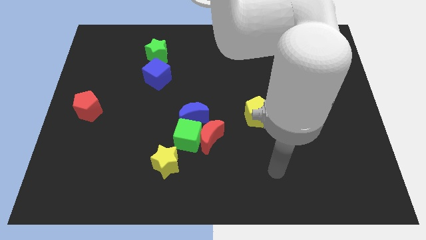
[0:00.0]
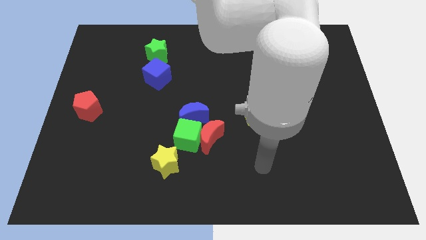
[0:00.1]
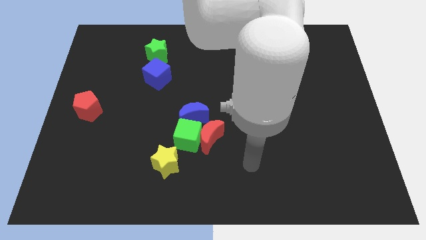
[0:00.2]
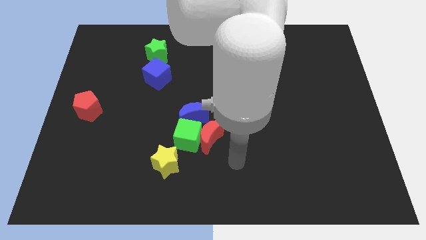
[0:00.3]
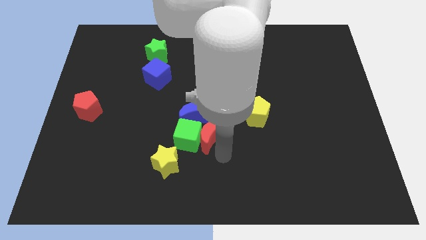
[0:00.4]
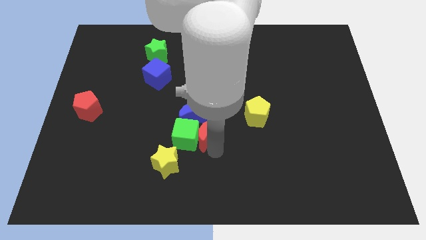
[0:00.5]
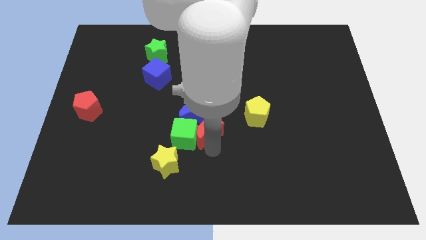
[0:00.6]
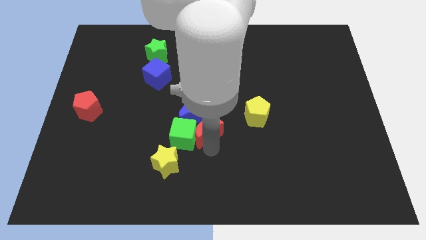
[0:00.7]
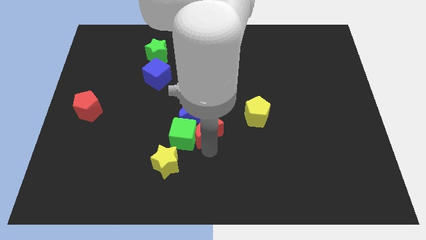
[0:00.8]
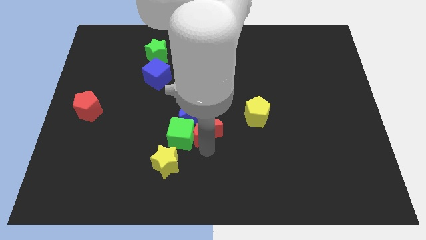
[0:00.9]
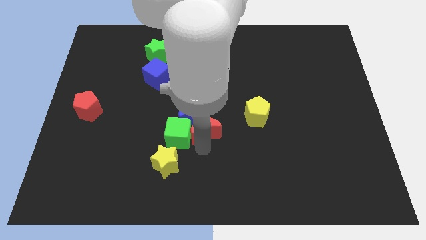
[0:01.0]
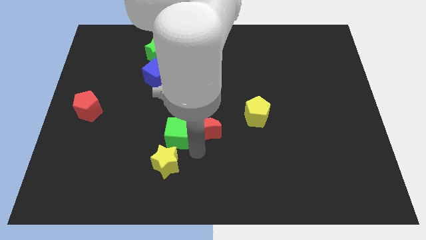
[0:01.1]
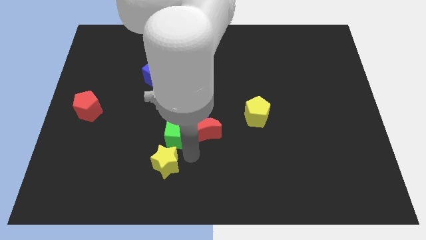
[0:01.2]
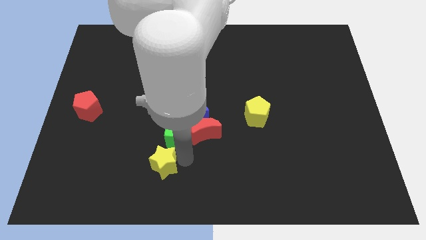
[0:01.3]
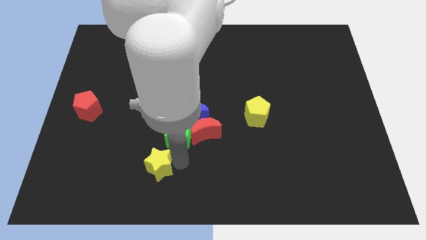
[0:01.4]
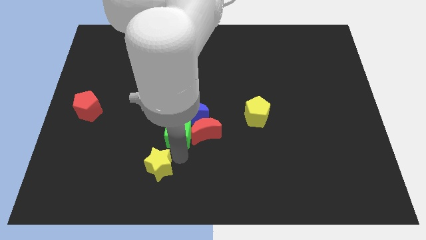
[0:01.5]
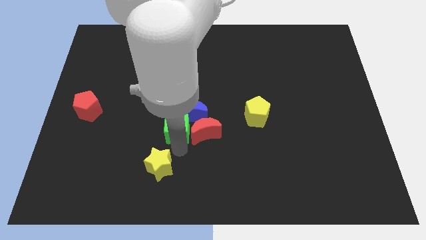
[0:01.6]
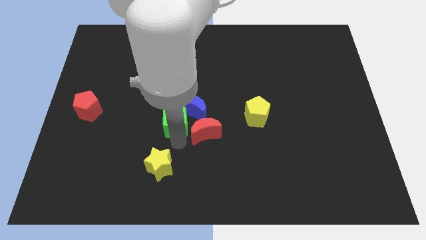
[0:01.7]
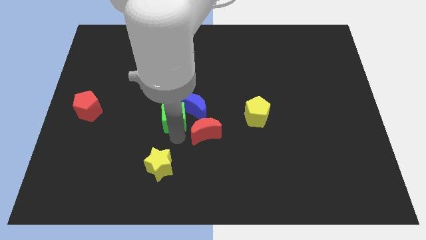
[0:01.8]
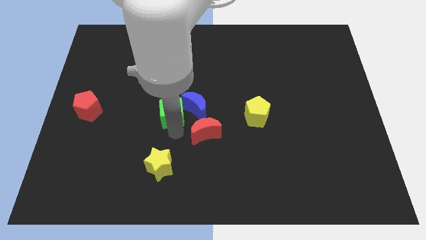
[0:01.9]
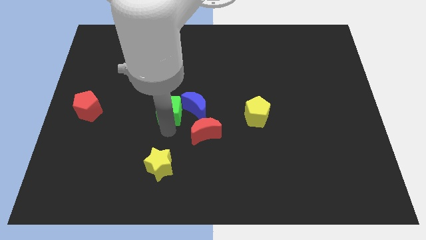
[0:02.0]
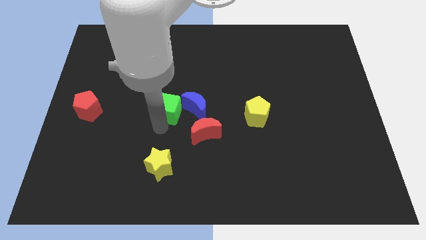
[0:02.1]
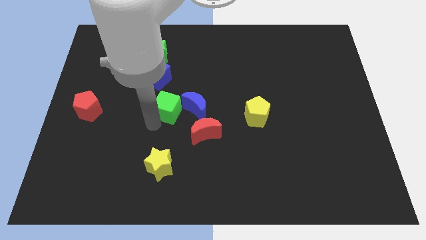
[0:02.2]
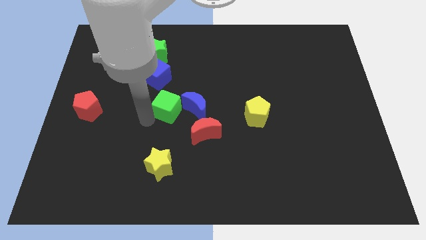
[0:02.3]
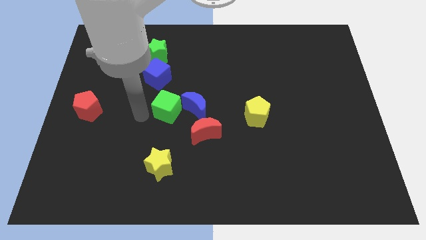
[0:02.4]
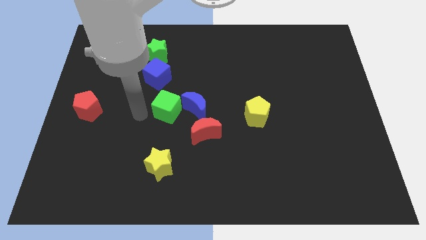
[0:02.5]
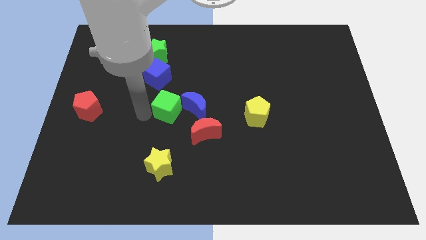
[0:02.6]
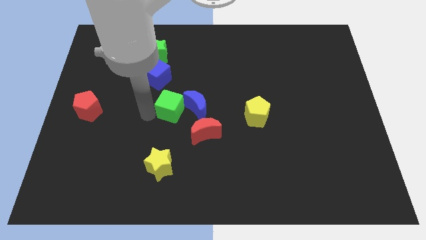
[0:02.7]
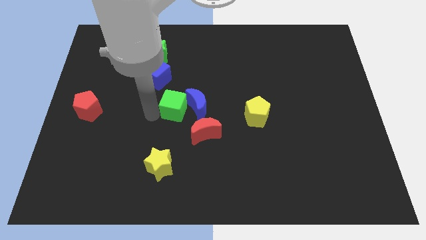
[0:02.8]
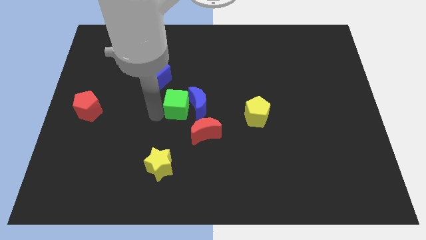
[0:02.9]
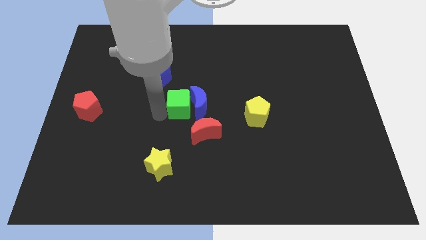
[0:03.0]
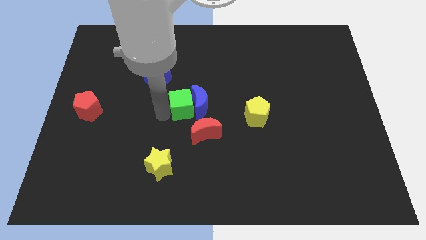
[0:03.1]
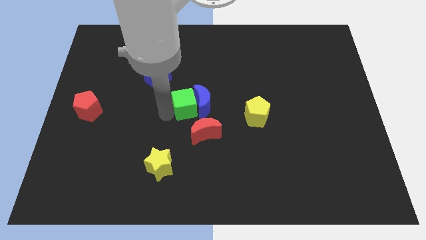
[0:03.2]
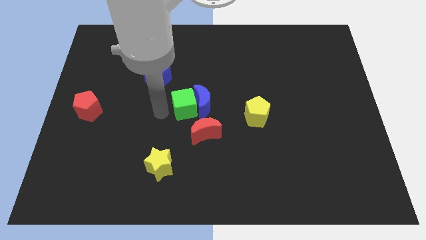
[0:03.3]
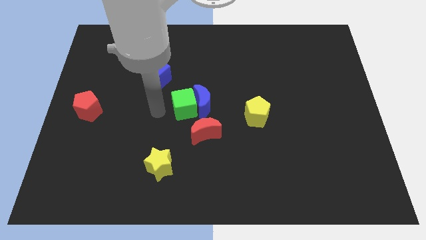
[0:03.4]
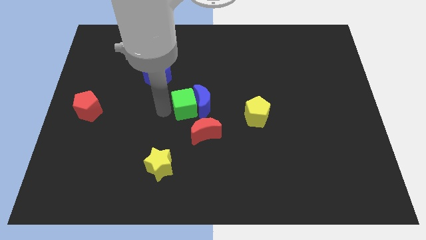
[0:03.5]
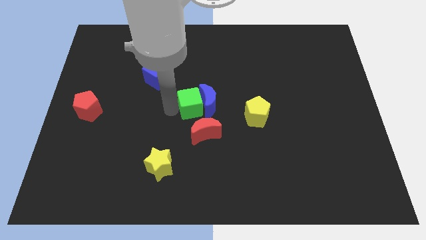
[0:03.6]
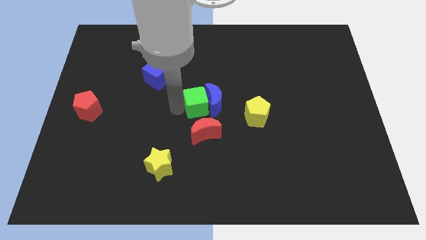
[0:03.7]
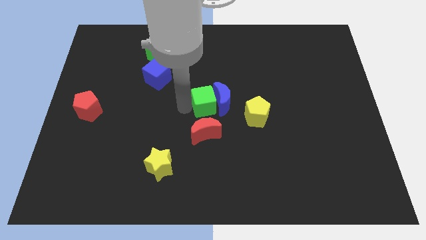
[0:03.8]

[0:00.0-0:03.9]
move the green cube a little diagonally upwards and to the right

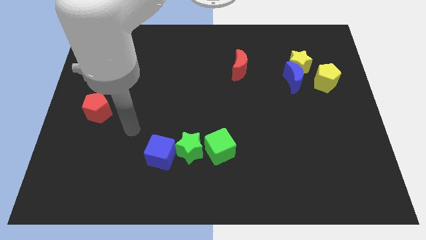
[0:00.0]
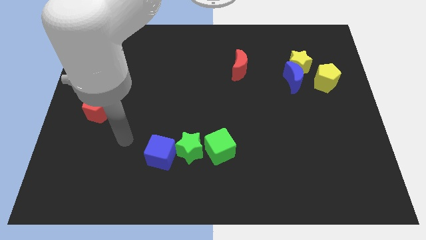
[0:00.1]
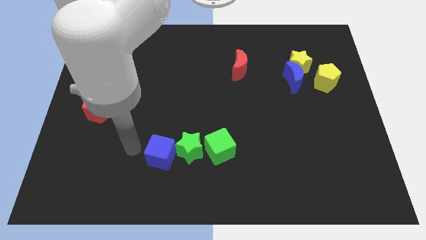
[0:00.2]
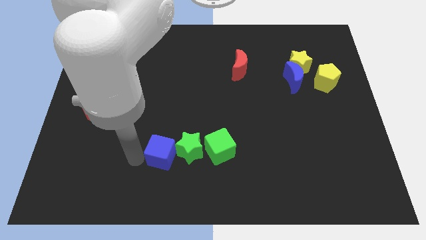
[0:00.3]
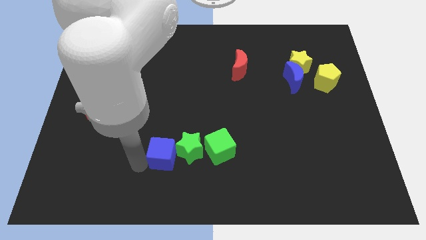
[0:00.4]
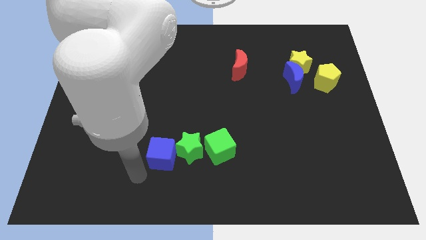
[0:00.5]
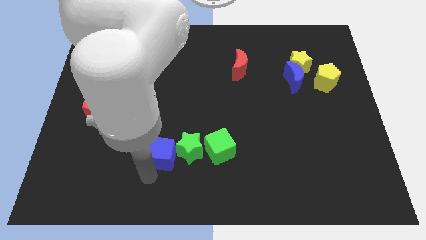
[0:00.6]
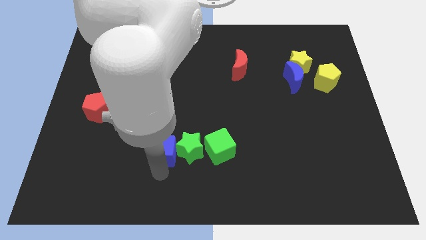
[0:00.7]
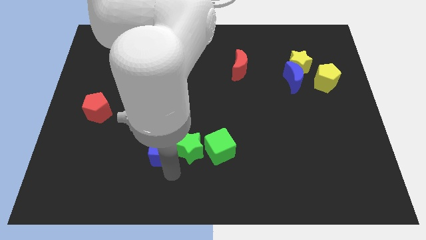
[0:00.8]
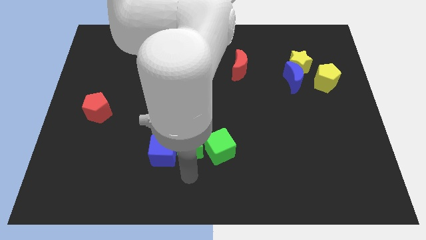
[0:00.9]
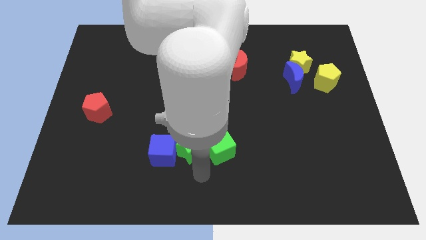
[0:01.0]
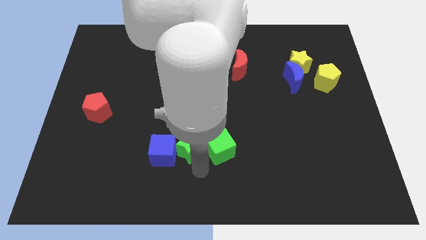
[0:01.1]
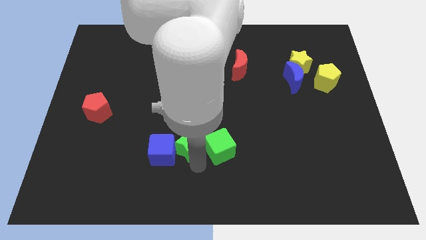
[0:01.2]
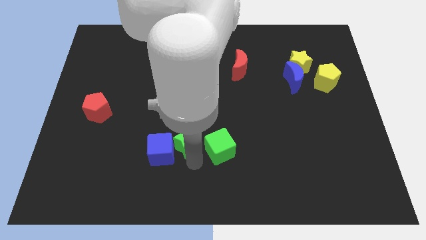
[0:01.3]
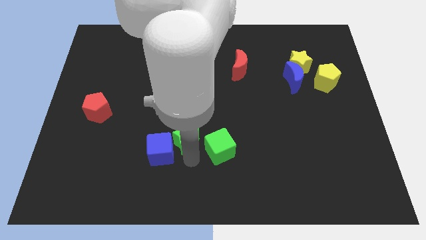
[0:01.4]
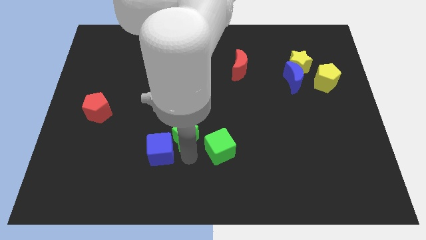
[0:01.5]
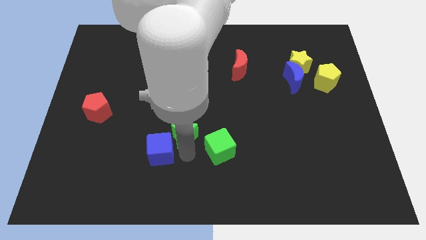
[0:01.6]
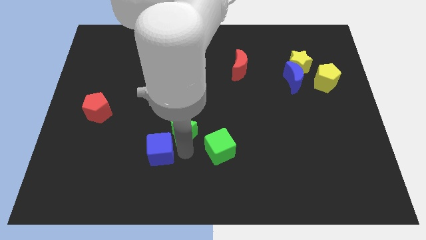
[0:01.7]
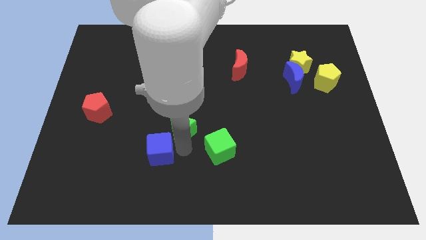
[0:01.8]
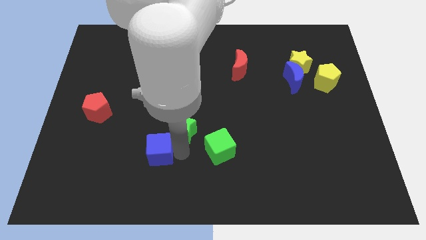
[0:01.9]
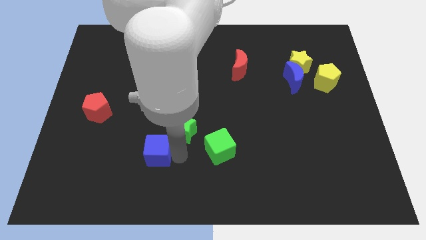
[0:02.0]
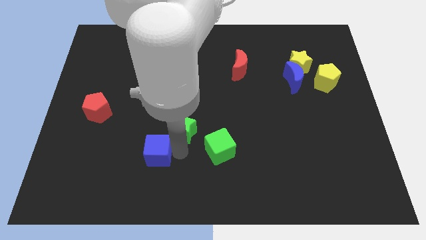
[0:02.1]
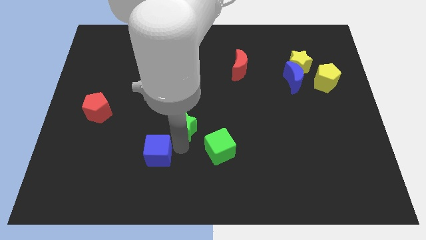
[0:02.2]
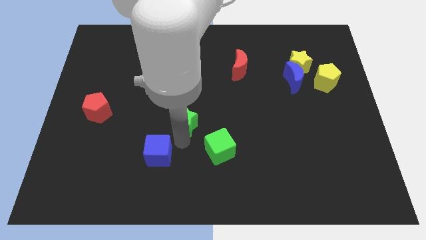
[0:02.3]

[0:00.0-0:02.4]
push the green star upwards slightly

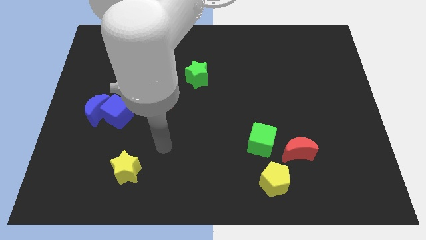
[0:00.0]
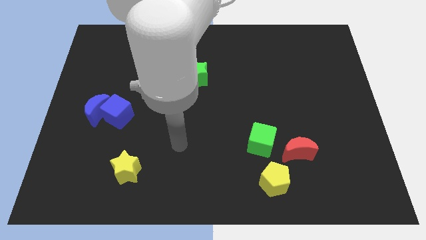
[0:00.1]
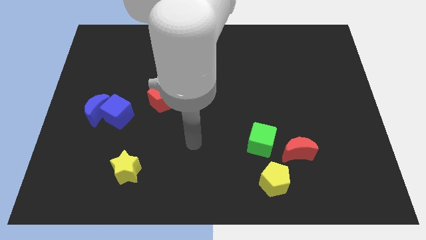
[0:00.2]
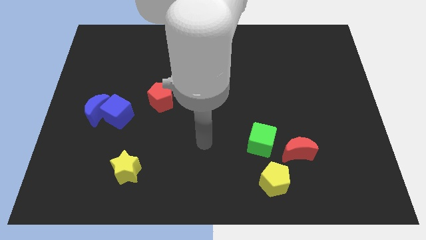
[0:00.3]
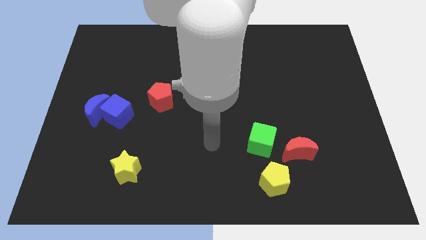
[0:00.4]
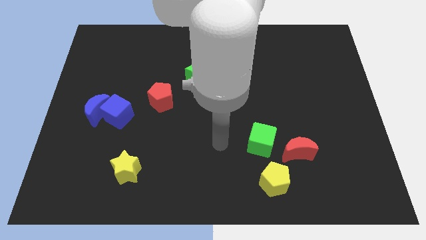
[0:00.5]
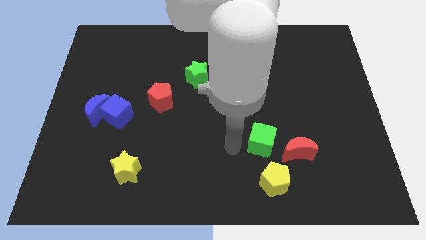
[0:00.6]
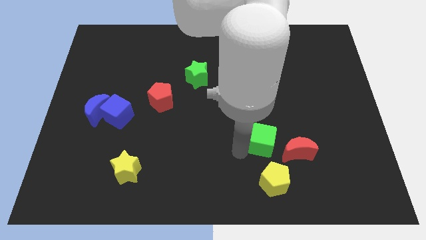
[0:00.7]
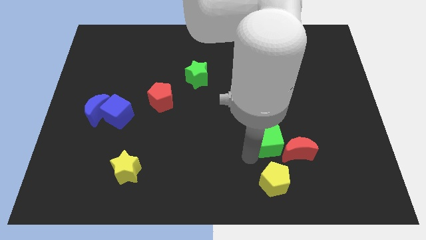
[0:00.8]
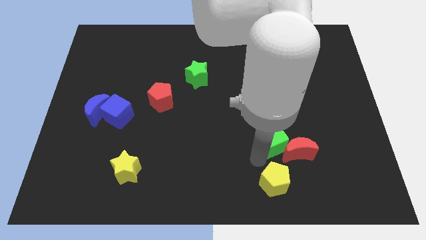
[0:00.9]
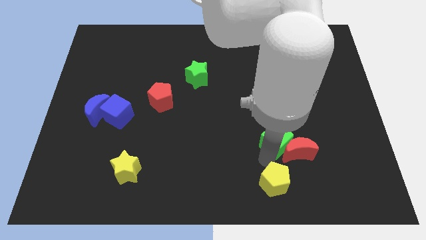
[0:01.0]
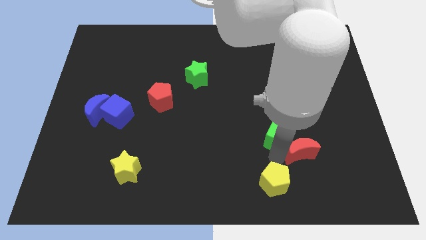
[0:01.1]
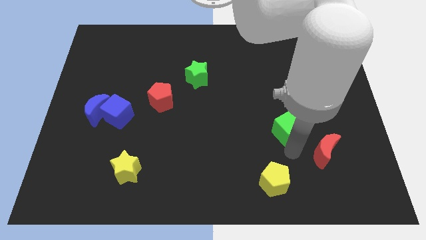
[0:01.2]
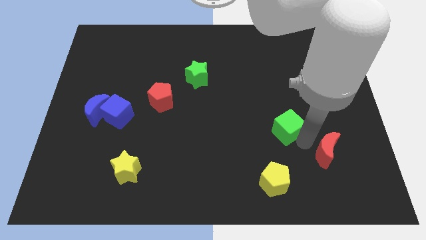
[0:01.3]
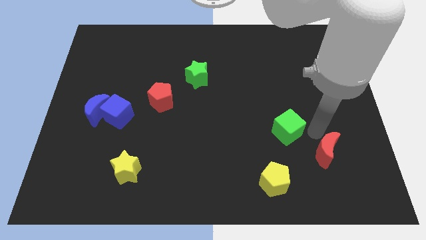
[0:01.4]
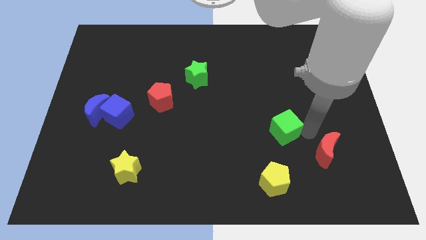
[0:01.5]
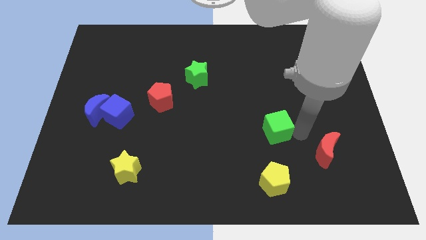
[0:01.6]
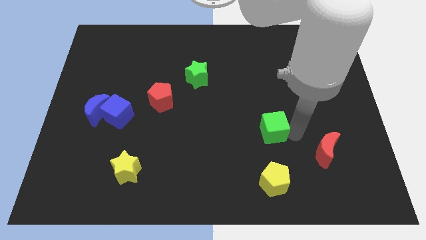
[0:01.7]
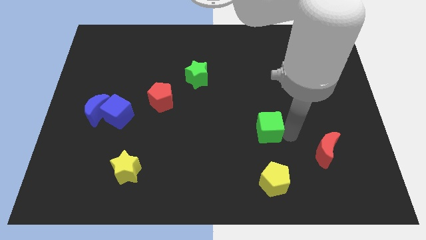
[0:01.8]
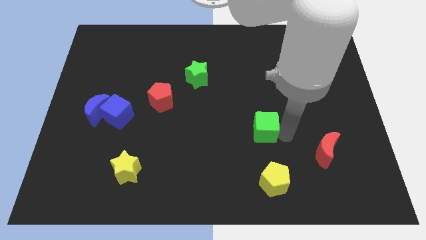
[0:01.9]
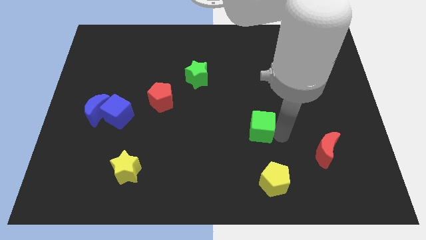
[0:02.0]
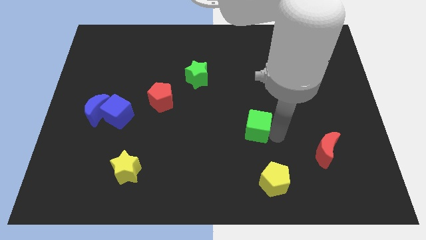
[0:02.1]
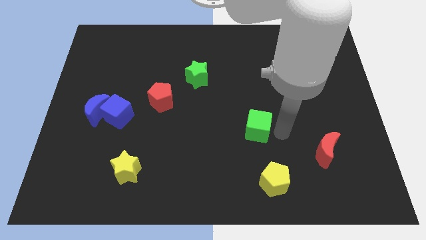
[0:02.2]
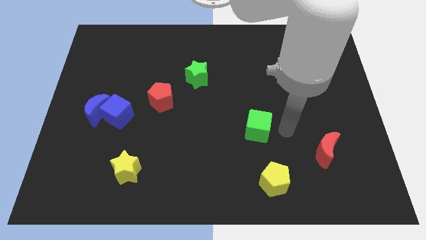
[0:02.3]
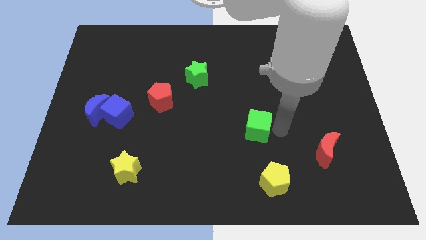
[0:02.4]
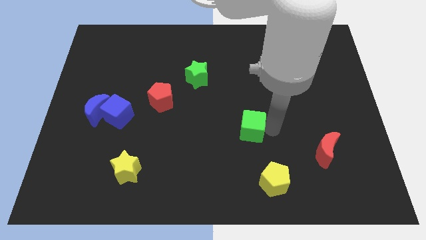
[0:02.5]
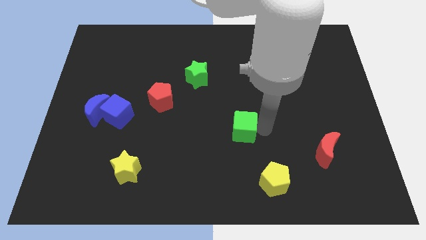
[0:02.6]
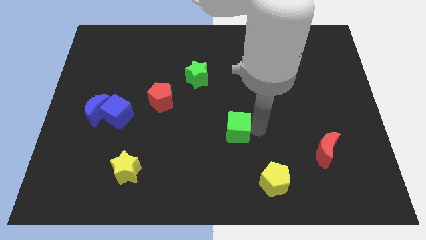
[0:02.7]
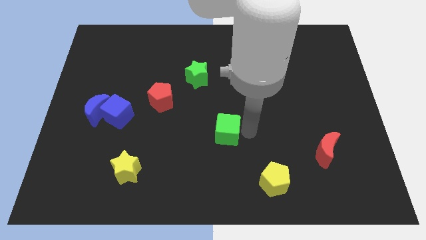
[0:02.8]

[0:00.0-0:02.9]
move the green cube somewhat up and then to the left
